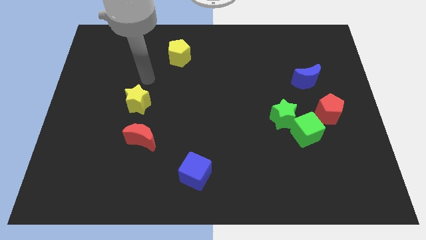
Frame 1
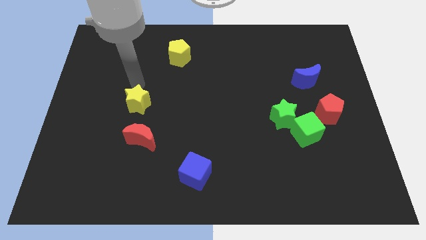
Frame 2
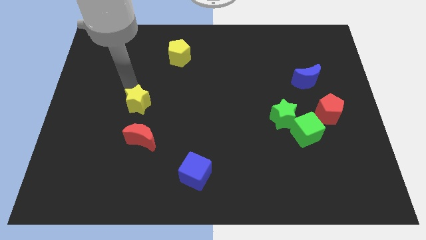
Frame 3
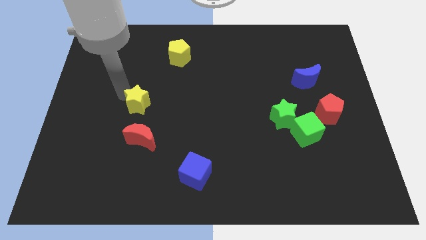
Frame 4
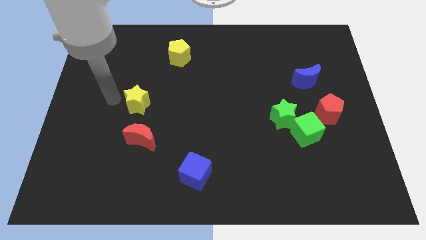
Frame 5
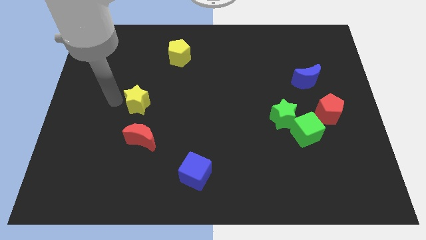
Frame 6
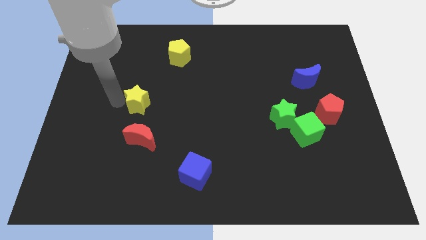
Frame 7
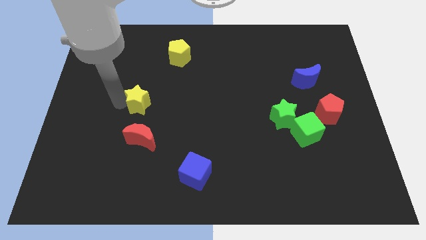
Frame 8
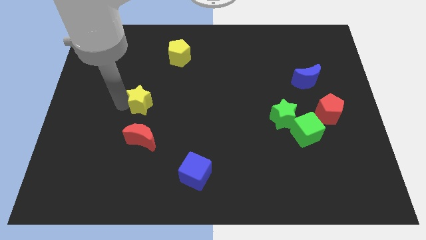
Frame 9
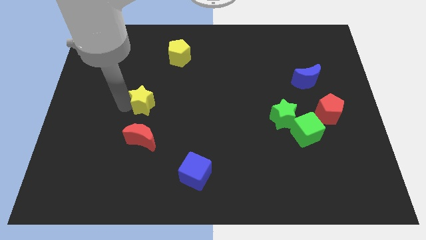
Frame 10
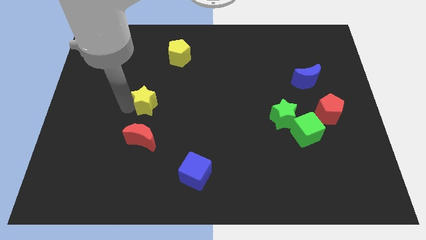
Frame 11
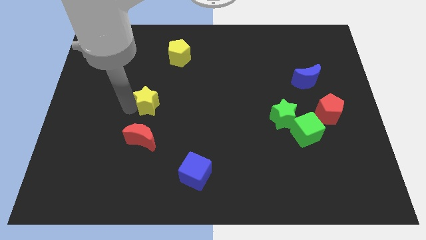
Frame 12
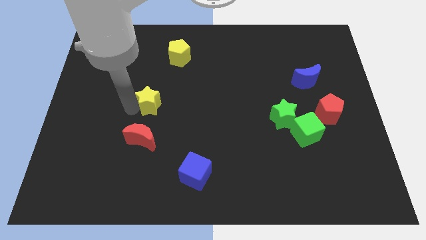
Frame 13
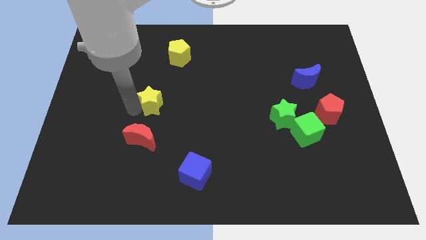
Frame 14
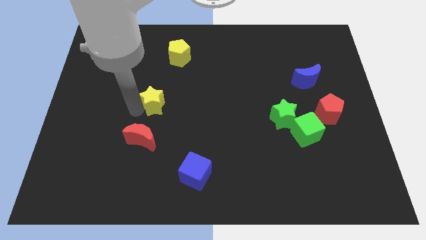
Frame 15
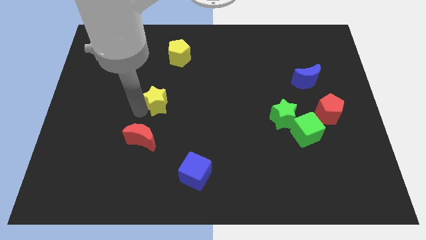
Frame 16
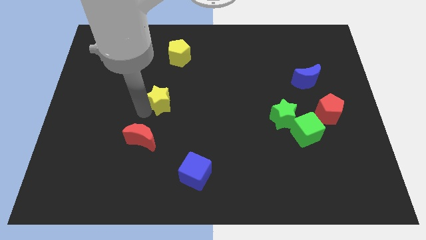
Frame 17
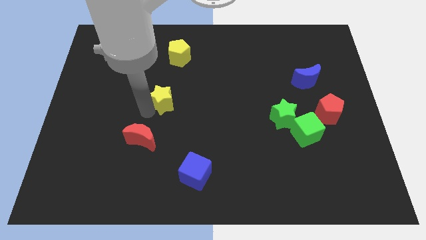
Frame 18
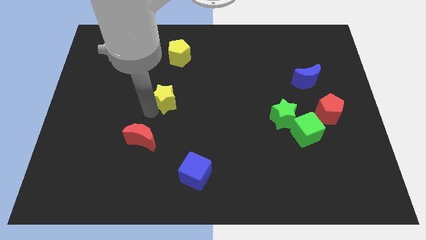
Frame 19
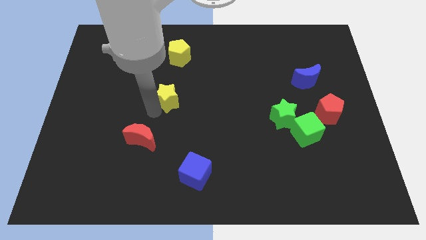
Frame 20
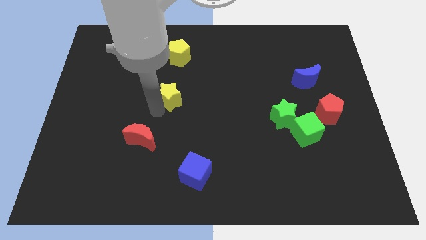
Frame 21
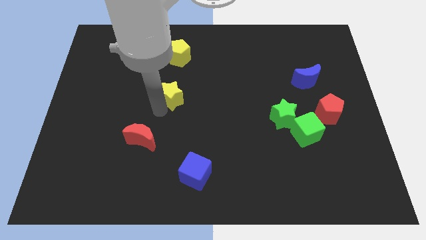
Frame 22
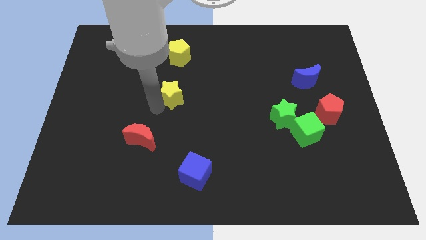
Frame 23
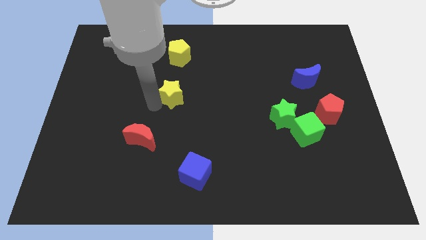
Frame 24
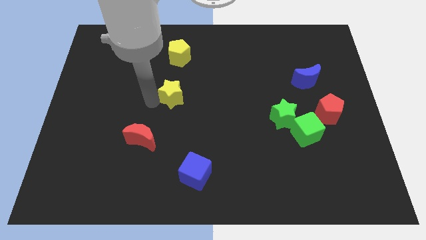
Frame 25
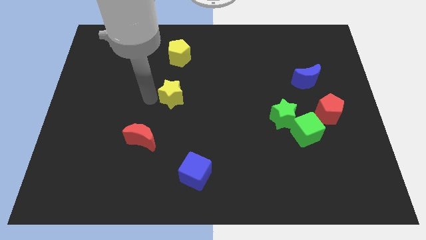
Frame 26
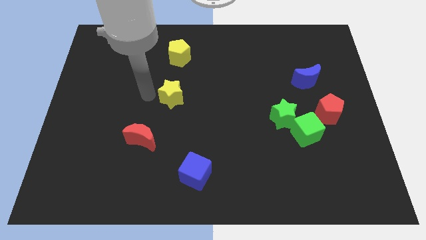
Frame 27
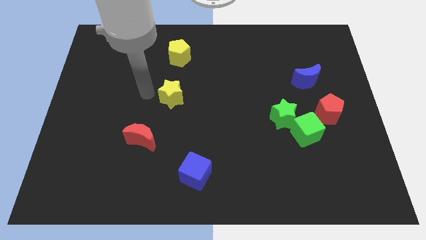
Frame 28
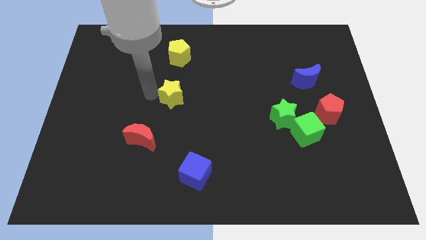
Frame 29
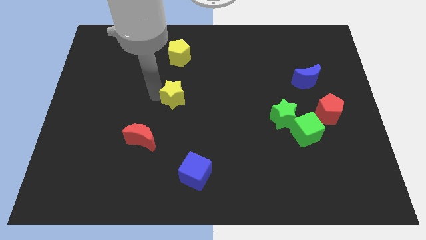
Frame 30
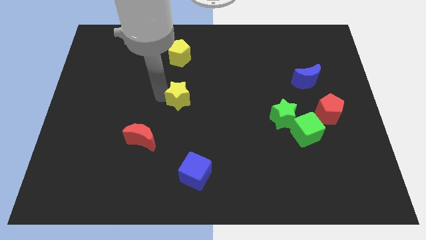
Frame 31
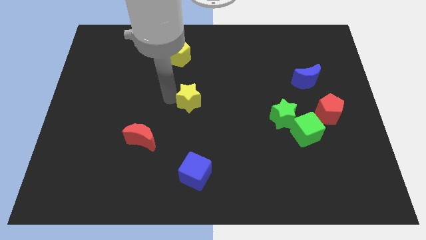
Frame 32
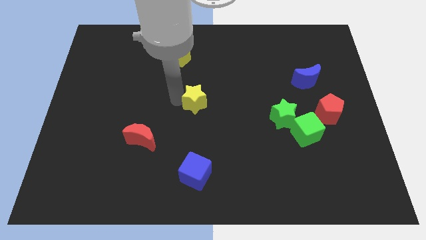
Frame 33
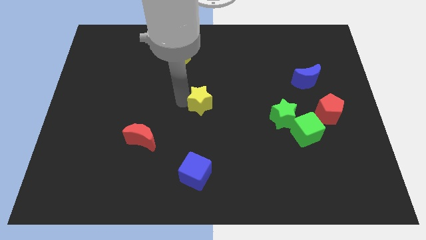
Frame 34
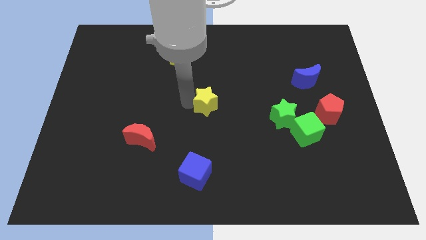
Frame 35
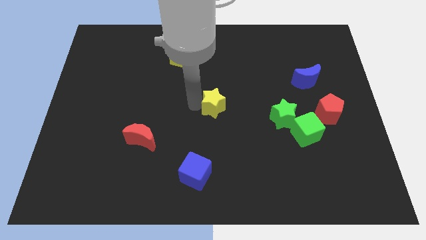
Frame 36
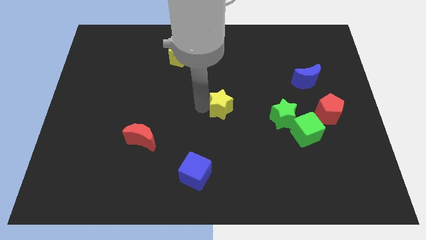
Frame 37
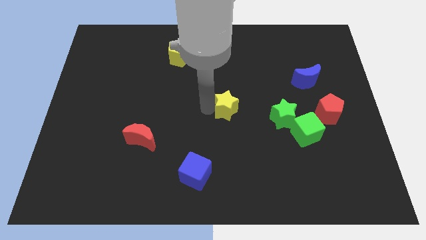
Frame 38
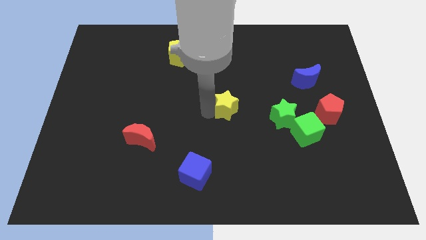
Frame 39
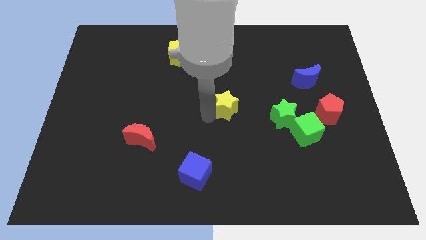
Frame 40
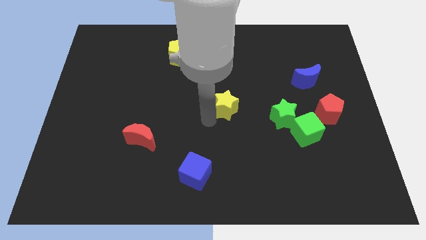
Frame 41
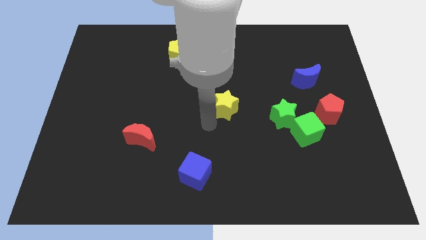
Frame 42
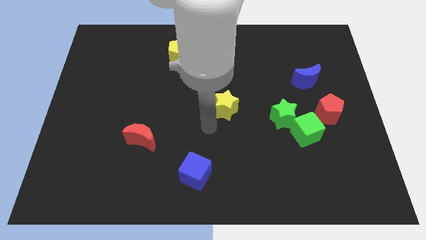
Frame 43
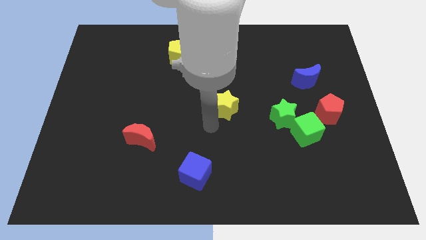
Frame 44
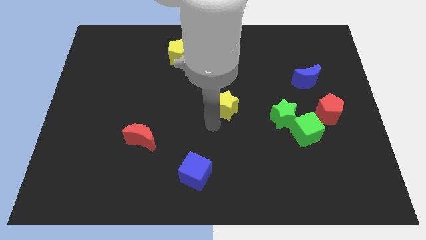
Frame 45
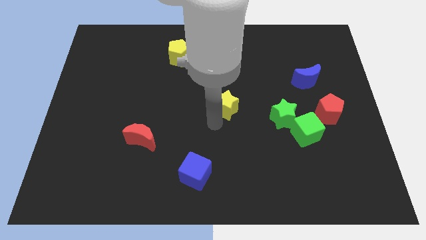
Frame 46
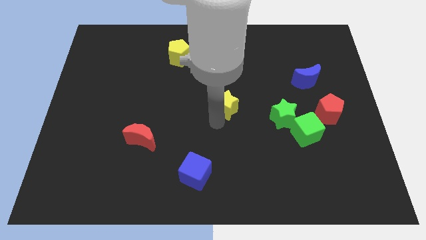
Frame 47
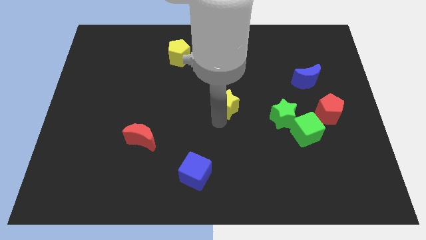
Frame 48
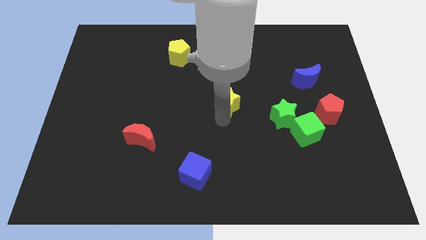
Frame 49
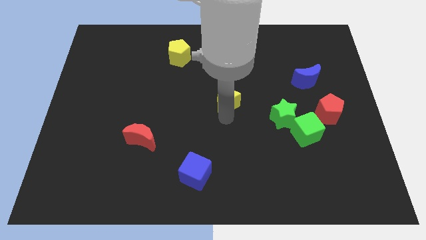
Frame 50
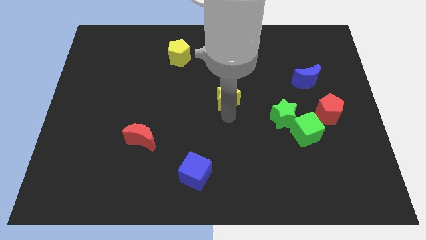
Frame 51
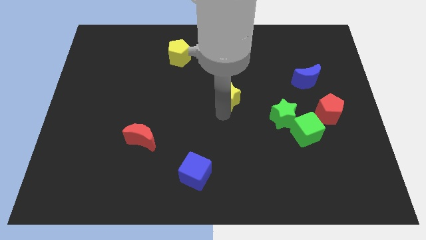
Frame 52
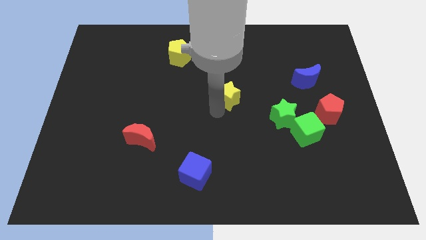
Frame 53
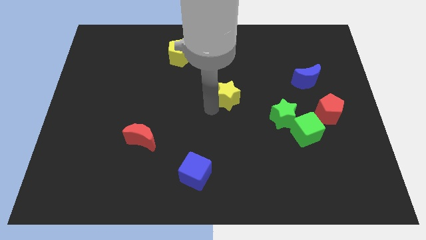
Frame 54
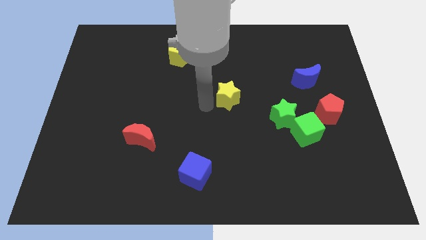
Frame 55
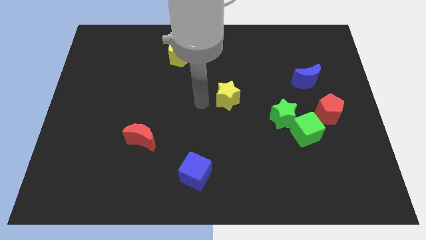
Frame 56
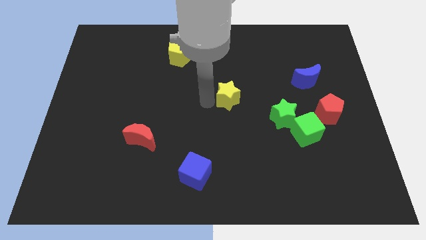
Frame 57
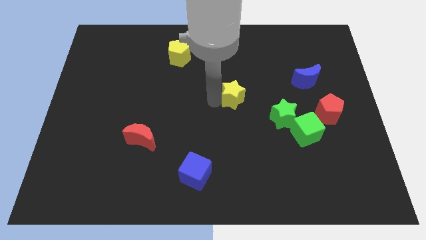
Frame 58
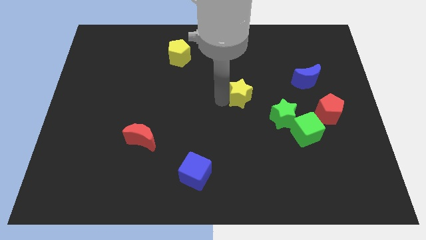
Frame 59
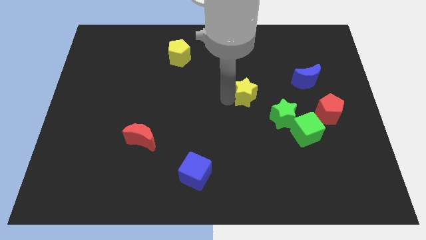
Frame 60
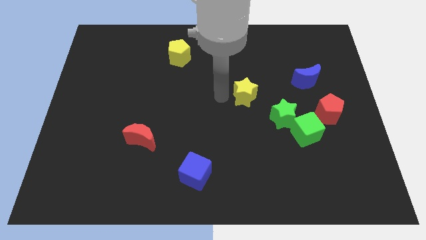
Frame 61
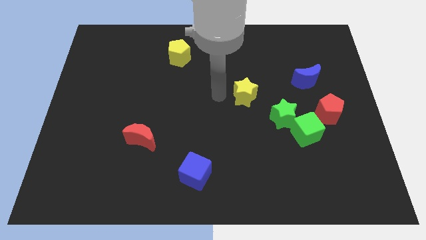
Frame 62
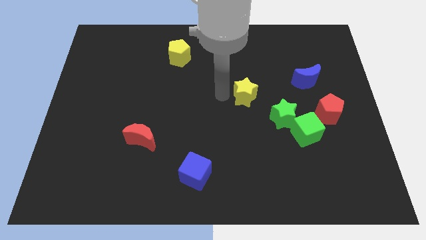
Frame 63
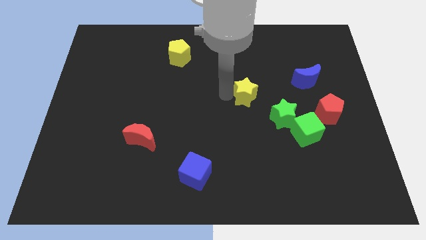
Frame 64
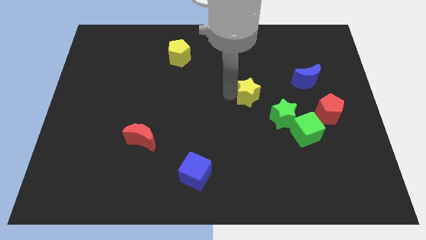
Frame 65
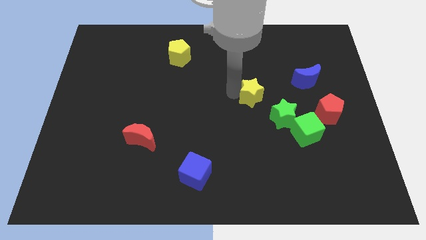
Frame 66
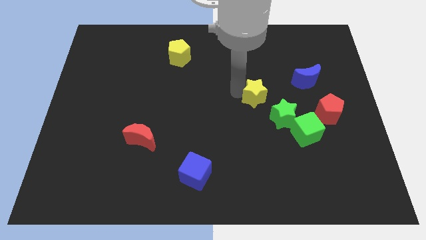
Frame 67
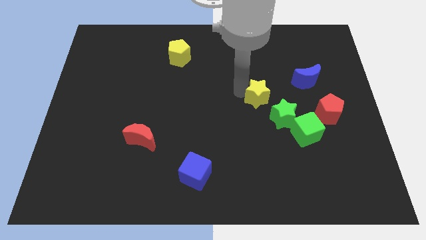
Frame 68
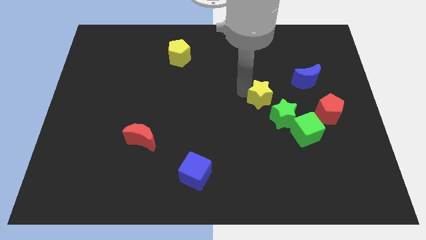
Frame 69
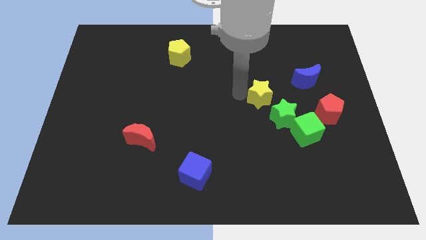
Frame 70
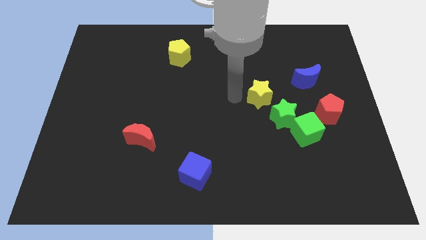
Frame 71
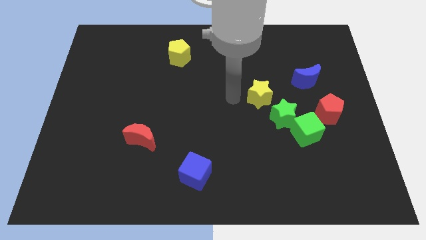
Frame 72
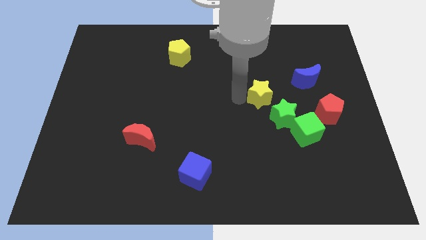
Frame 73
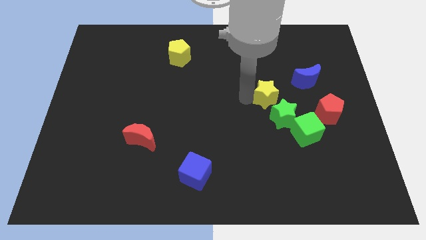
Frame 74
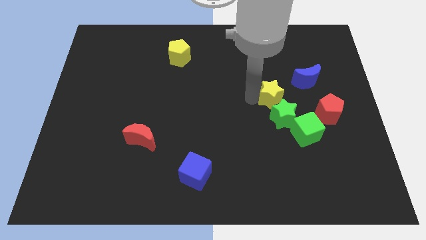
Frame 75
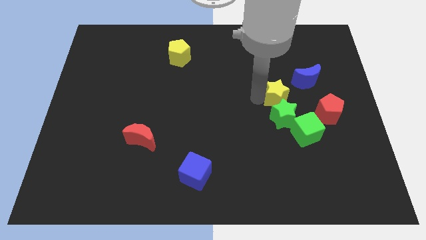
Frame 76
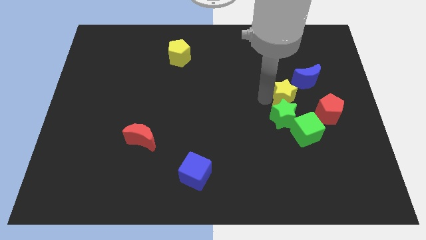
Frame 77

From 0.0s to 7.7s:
slide the yellow star diagonally up and to the left of the red pentagon
